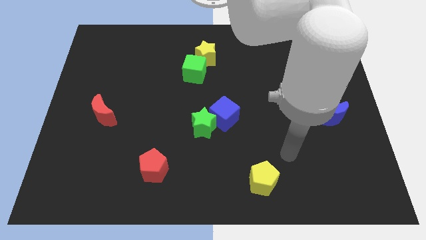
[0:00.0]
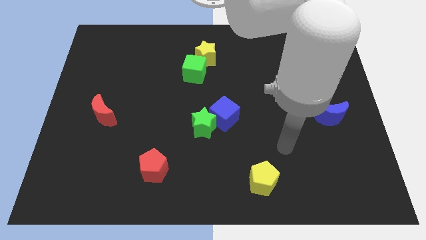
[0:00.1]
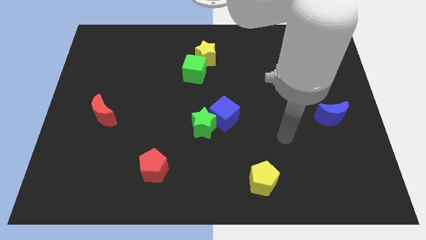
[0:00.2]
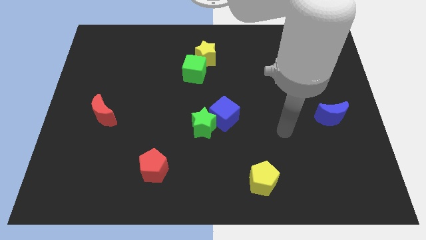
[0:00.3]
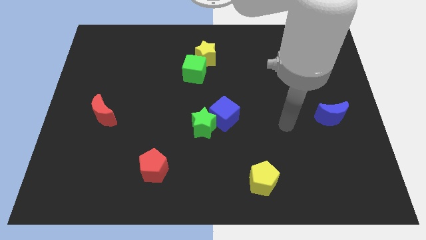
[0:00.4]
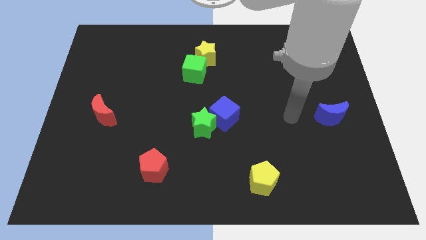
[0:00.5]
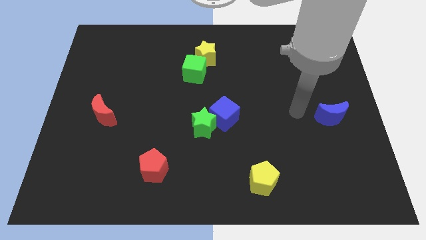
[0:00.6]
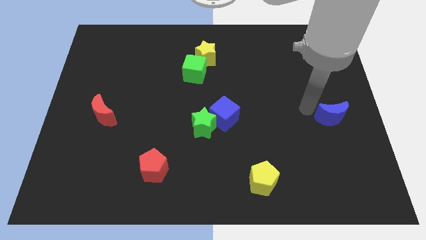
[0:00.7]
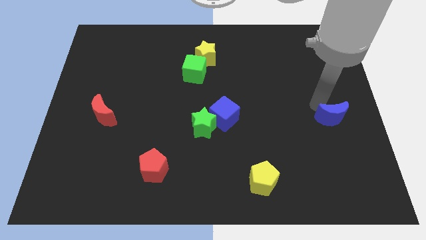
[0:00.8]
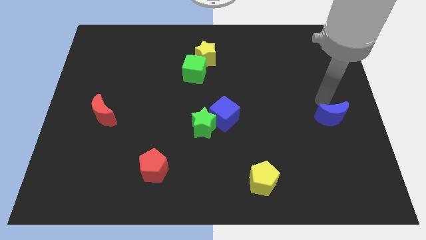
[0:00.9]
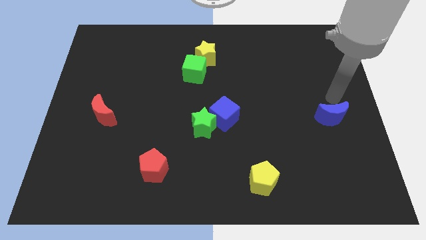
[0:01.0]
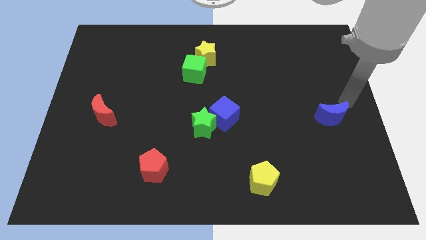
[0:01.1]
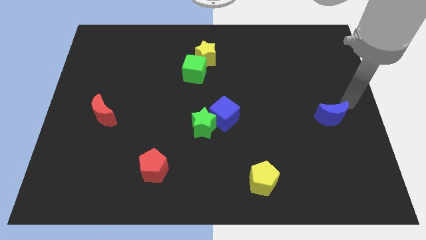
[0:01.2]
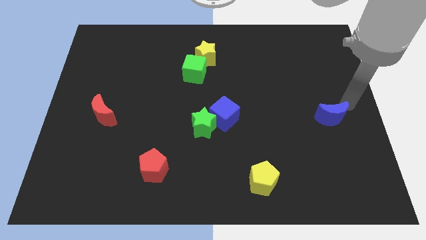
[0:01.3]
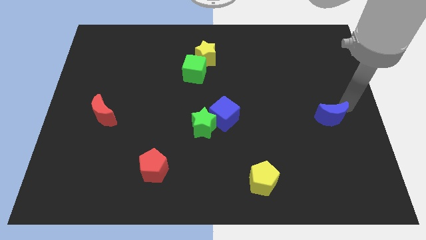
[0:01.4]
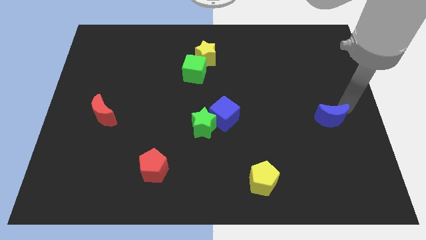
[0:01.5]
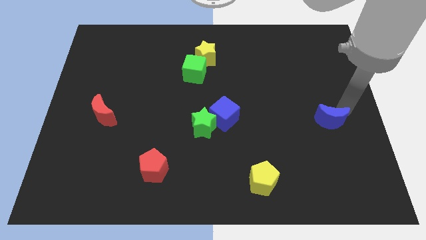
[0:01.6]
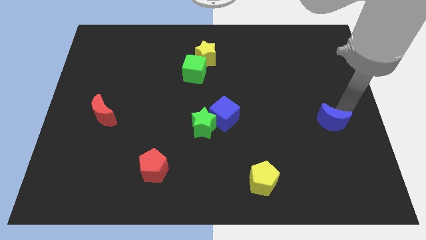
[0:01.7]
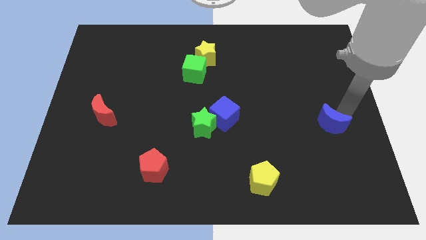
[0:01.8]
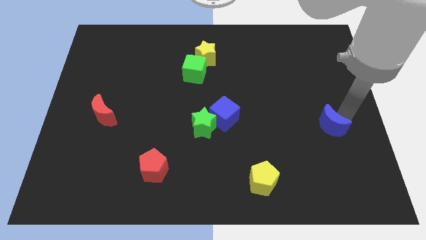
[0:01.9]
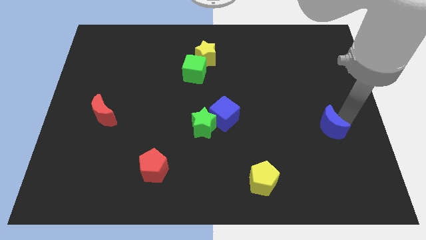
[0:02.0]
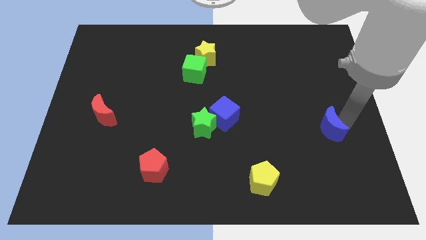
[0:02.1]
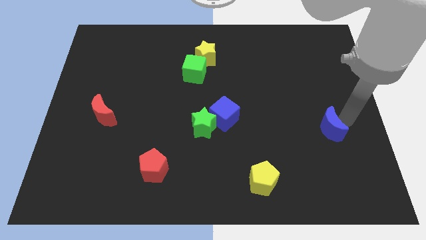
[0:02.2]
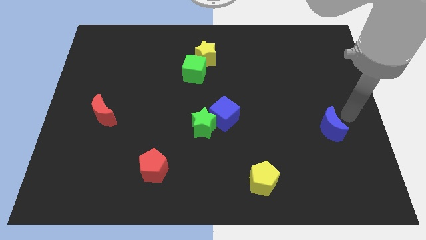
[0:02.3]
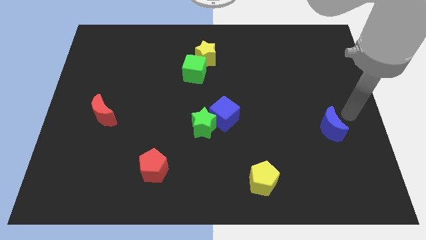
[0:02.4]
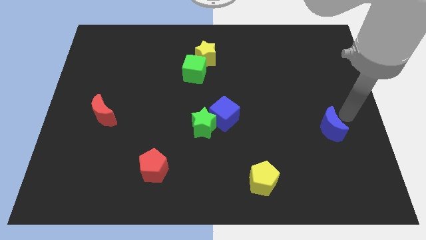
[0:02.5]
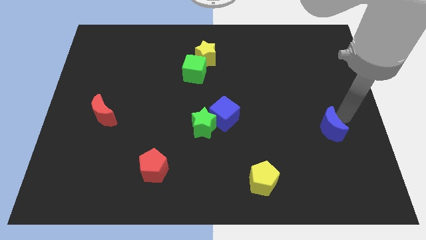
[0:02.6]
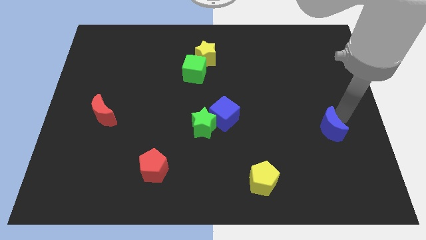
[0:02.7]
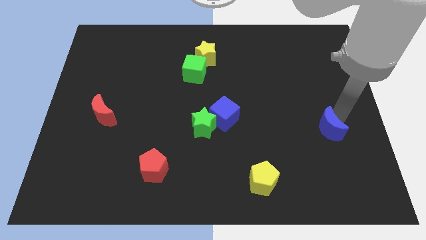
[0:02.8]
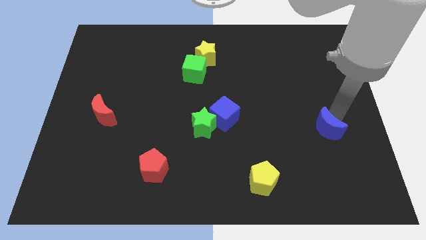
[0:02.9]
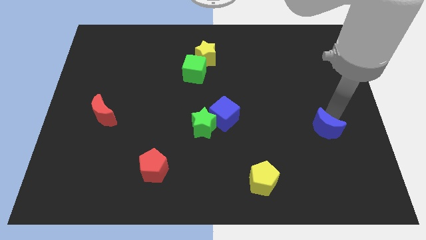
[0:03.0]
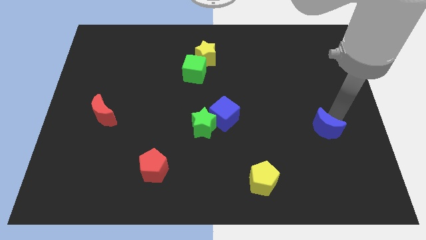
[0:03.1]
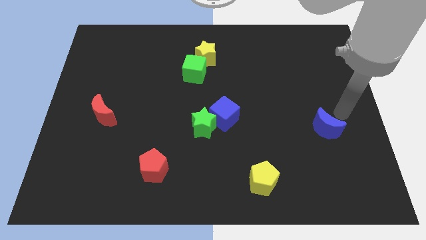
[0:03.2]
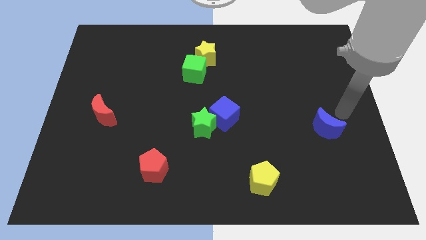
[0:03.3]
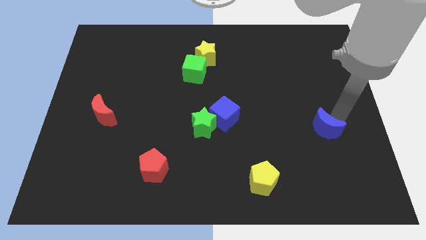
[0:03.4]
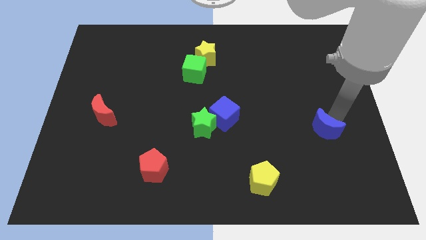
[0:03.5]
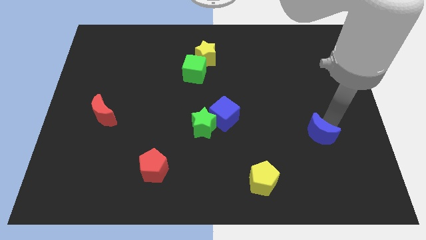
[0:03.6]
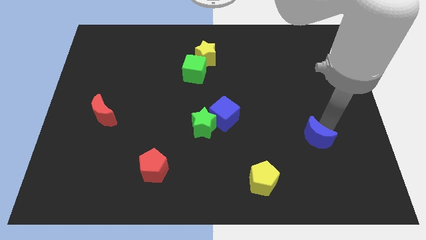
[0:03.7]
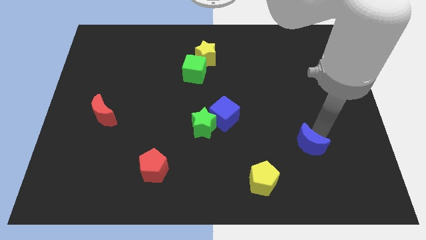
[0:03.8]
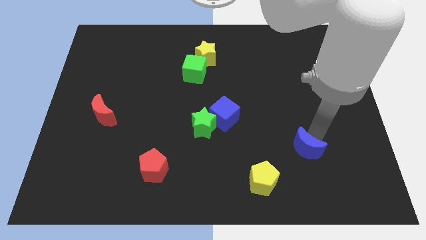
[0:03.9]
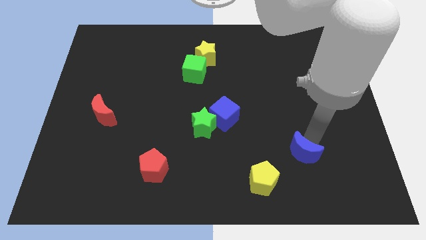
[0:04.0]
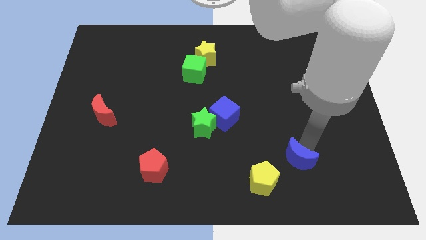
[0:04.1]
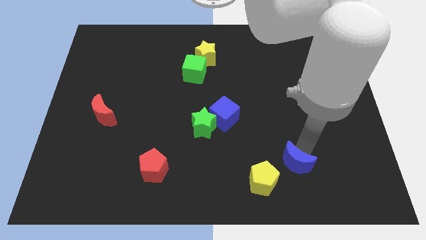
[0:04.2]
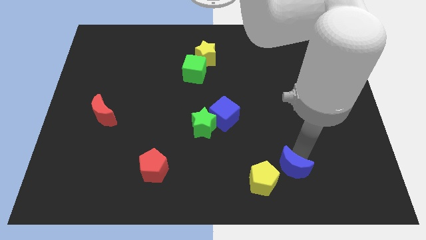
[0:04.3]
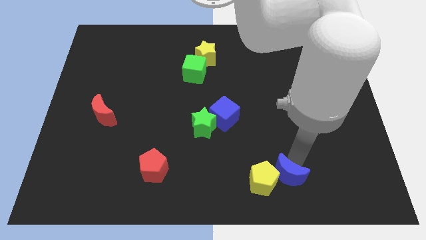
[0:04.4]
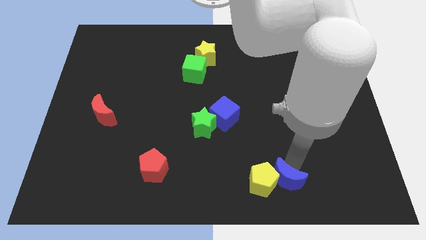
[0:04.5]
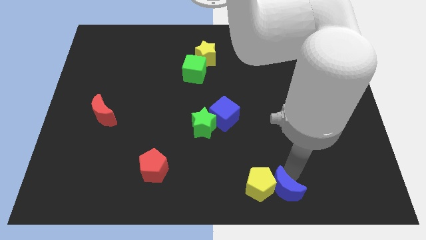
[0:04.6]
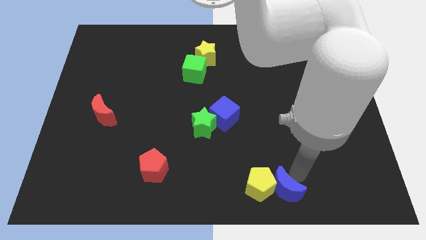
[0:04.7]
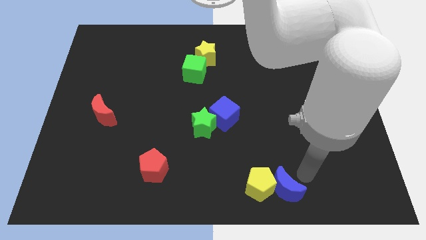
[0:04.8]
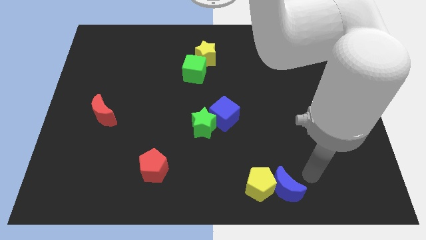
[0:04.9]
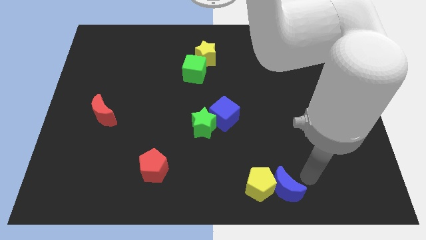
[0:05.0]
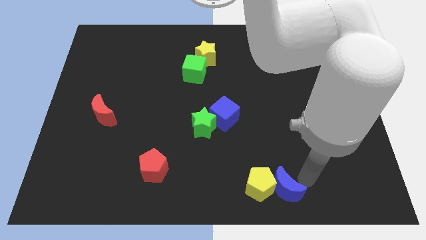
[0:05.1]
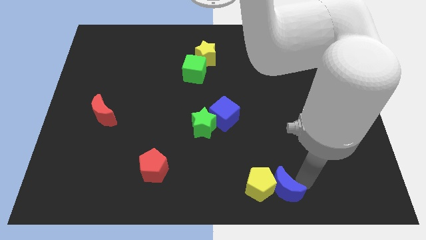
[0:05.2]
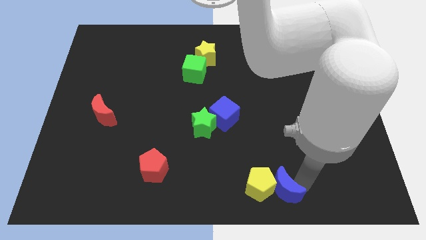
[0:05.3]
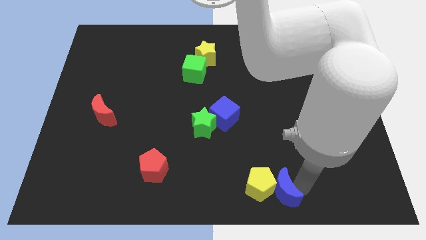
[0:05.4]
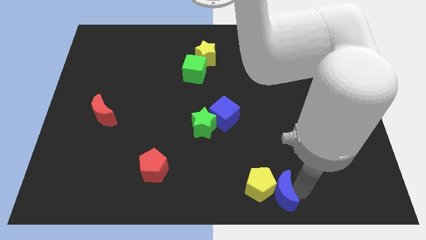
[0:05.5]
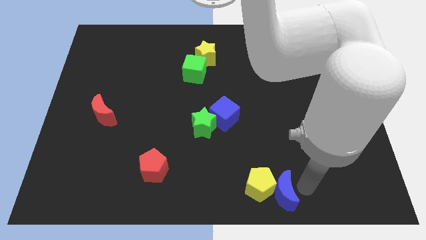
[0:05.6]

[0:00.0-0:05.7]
put the blue moon to the bottom side

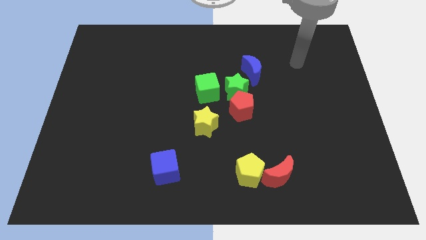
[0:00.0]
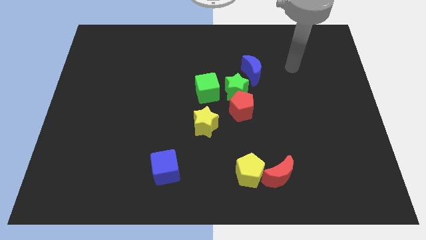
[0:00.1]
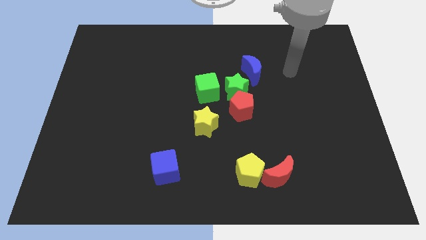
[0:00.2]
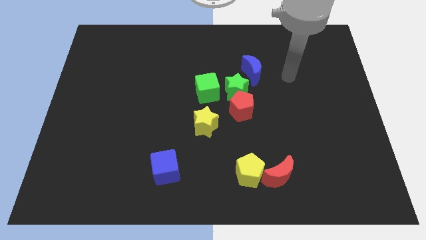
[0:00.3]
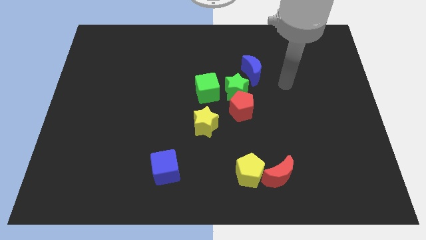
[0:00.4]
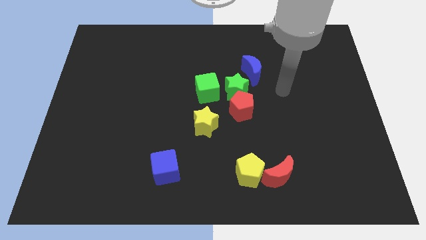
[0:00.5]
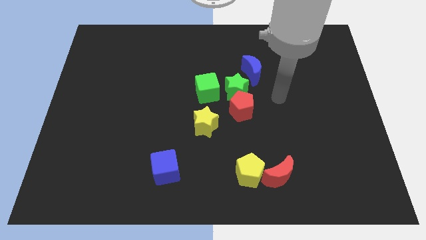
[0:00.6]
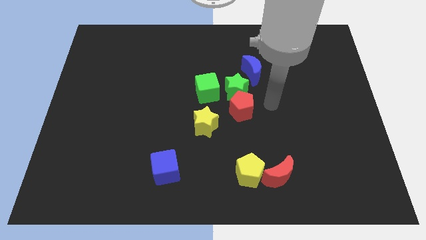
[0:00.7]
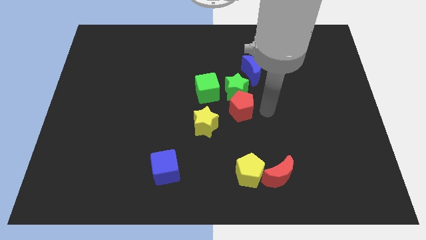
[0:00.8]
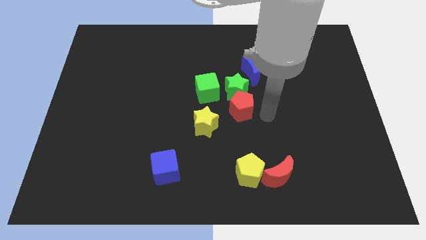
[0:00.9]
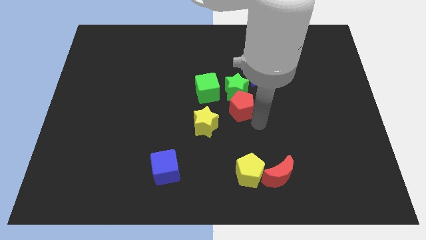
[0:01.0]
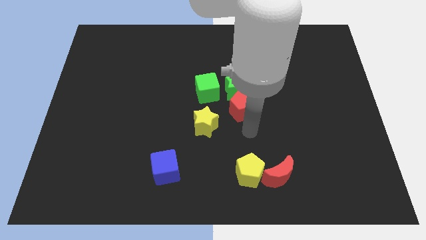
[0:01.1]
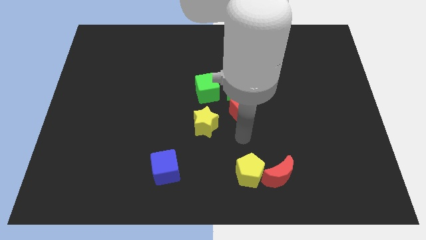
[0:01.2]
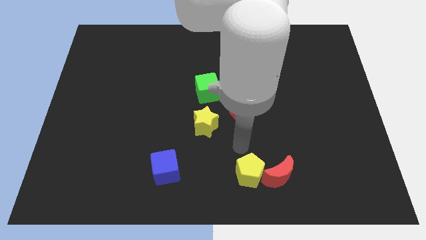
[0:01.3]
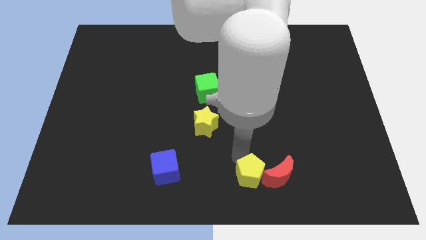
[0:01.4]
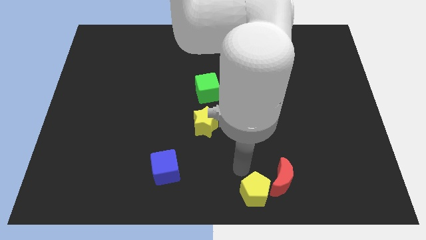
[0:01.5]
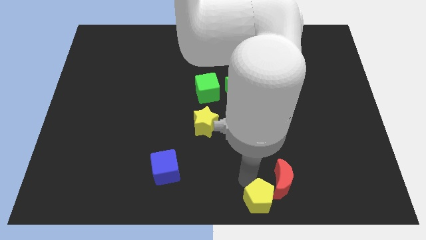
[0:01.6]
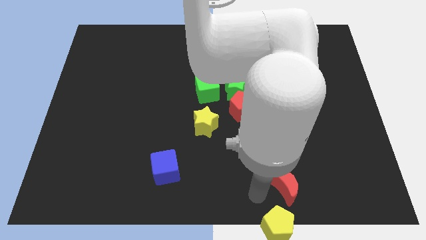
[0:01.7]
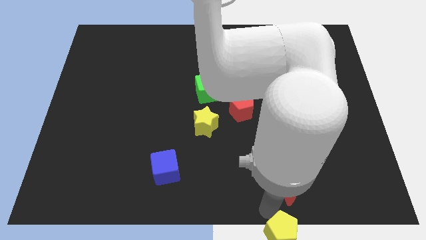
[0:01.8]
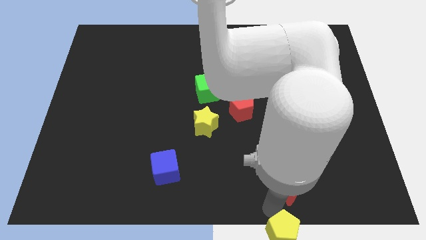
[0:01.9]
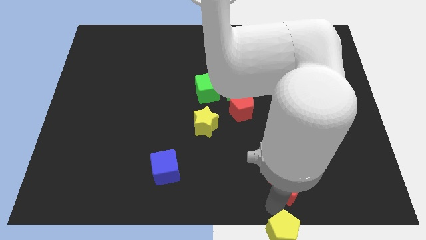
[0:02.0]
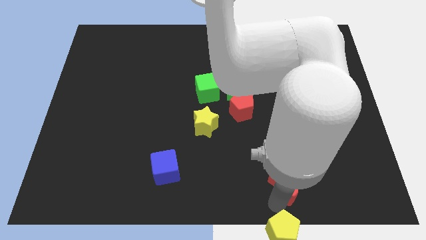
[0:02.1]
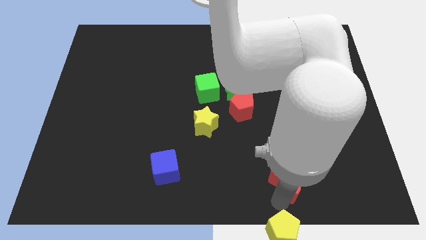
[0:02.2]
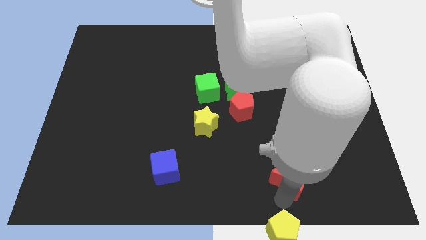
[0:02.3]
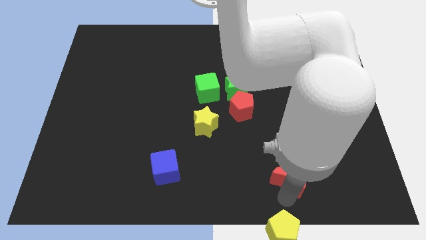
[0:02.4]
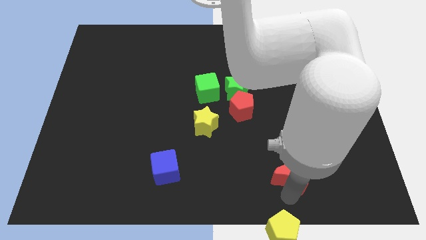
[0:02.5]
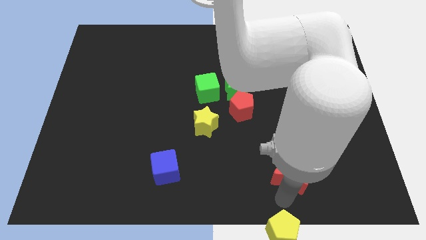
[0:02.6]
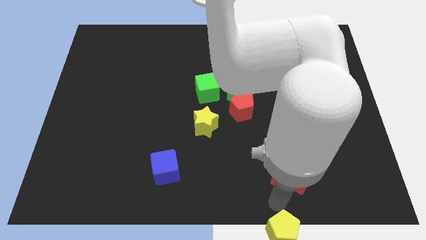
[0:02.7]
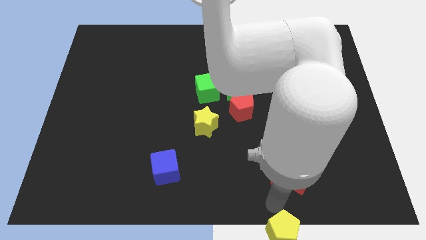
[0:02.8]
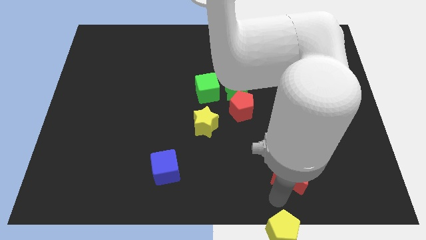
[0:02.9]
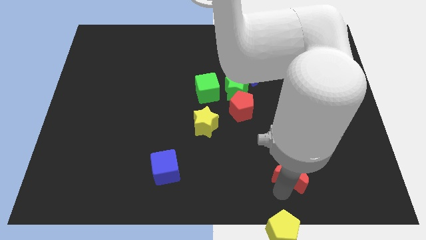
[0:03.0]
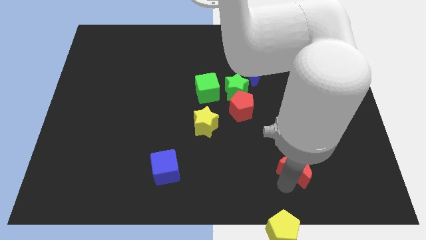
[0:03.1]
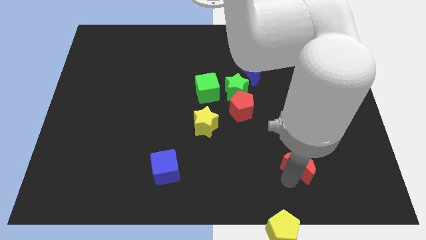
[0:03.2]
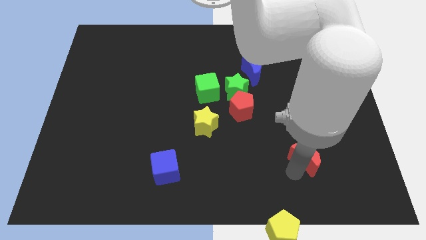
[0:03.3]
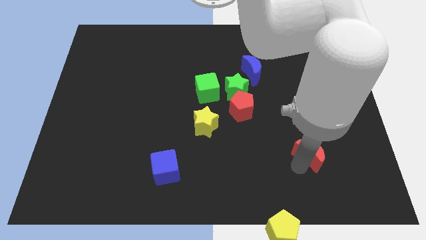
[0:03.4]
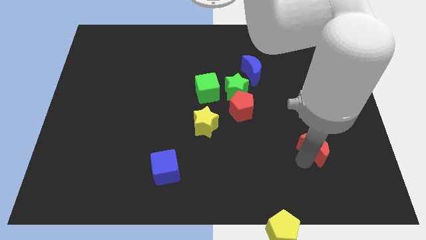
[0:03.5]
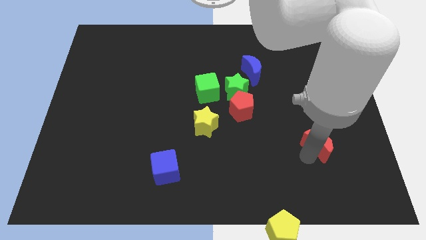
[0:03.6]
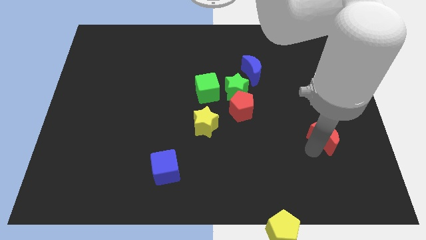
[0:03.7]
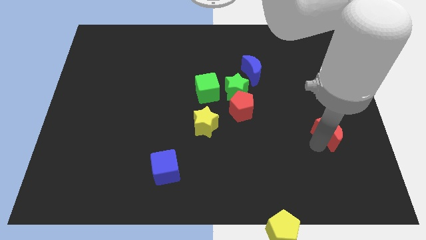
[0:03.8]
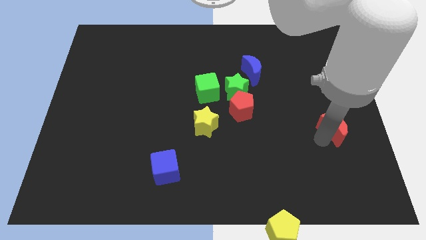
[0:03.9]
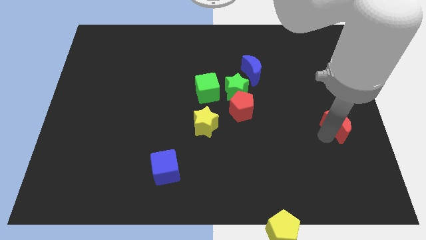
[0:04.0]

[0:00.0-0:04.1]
move the red moon to the right side
